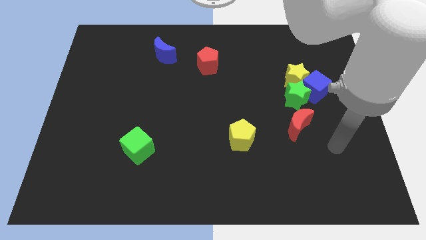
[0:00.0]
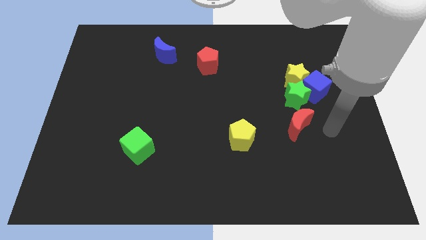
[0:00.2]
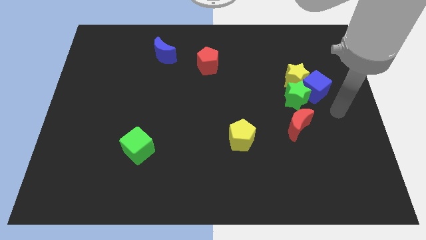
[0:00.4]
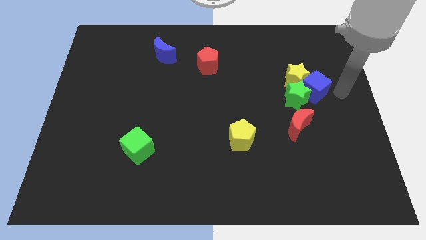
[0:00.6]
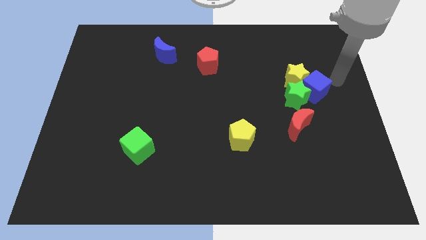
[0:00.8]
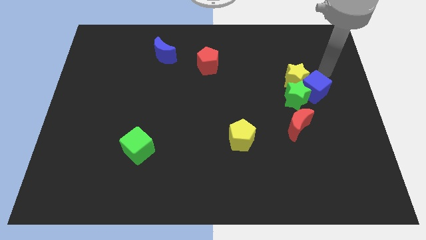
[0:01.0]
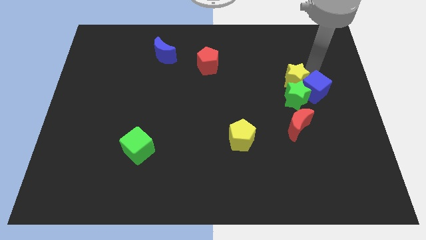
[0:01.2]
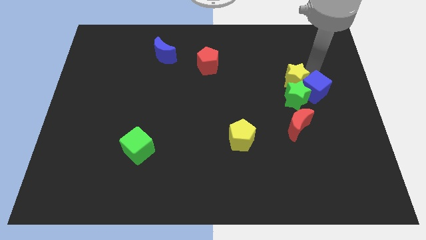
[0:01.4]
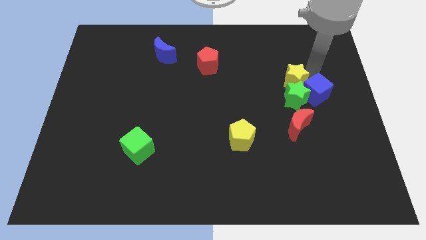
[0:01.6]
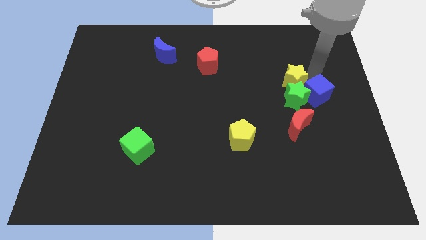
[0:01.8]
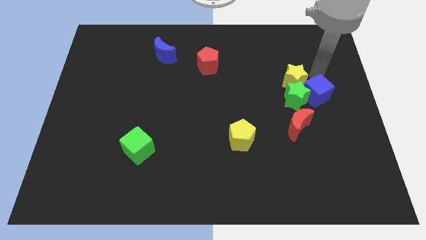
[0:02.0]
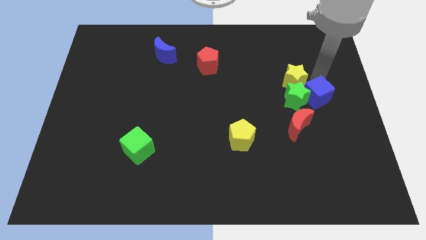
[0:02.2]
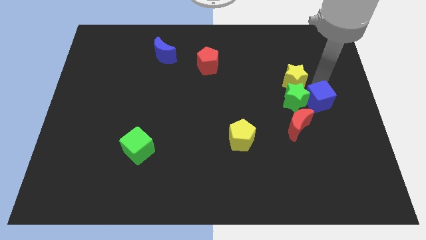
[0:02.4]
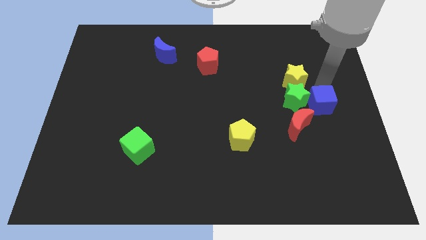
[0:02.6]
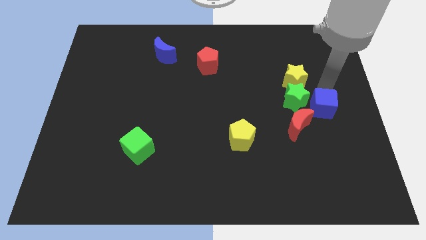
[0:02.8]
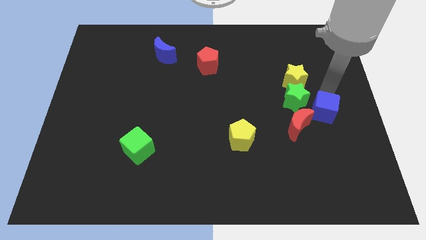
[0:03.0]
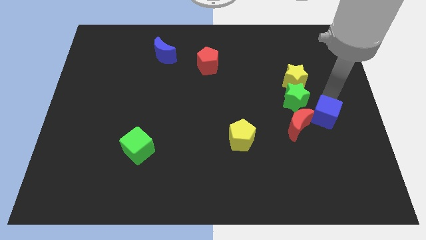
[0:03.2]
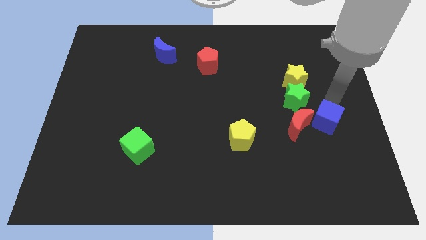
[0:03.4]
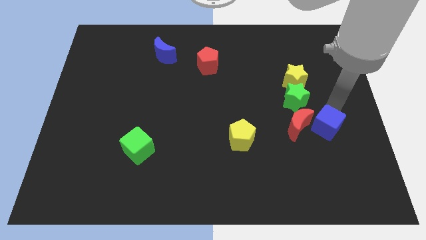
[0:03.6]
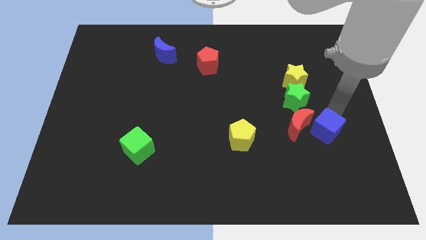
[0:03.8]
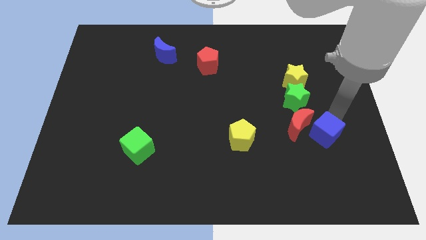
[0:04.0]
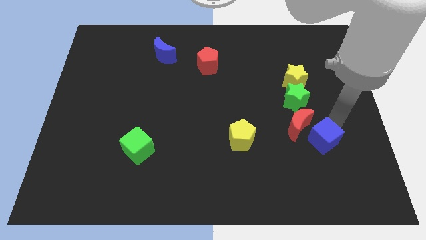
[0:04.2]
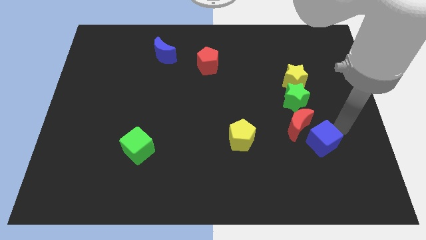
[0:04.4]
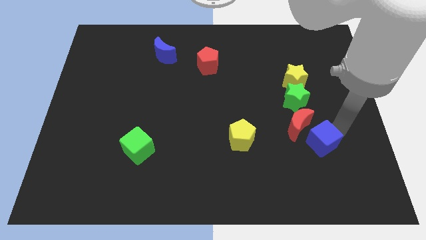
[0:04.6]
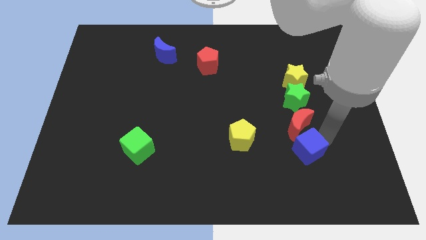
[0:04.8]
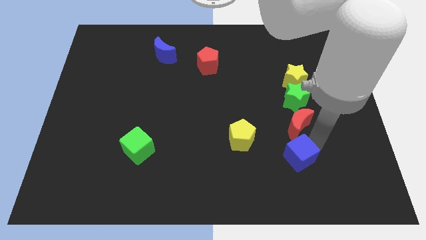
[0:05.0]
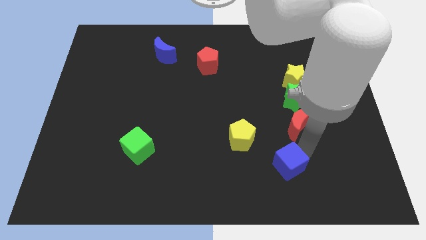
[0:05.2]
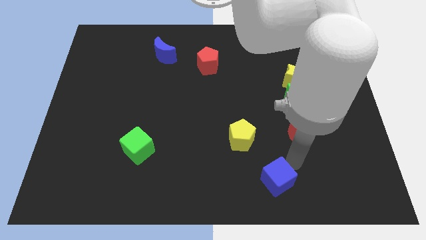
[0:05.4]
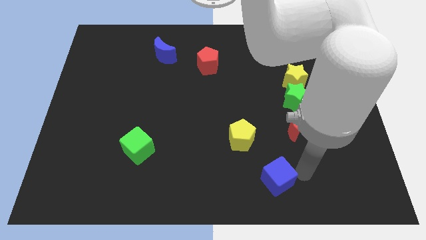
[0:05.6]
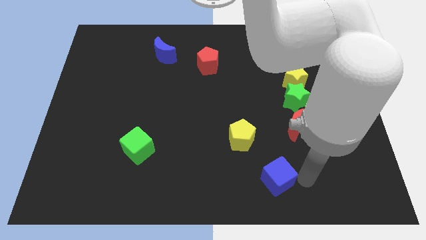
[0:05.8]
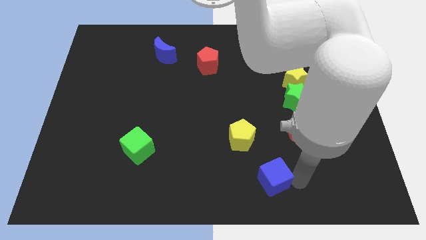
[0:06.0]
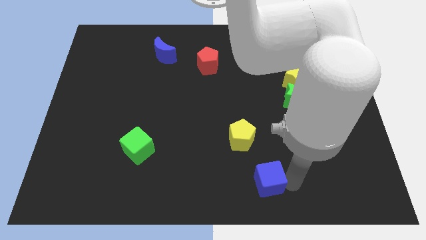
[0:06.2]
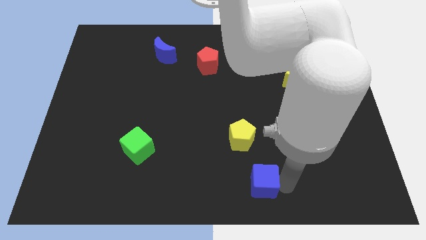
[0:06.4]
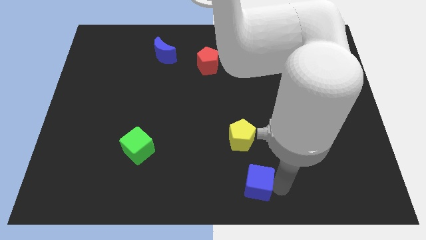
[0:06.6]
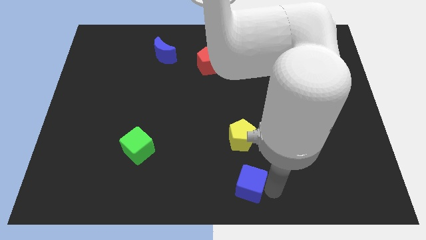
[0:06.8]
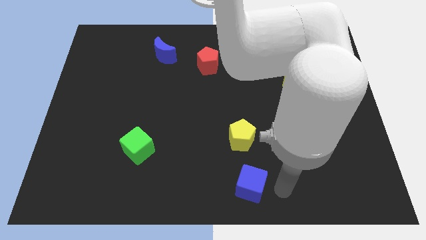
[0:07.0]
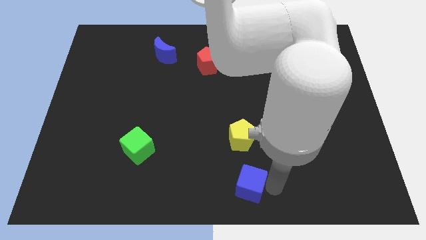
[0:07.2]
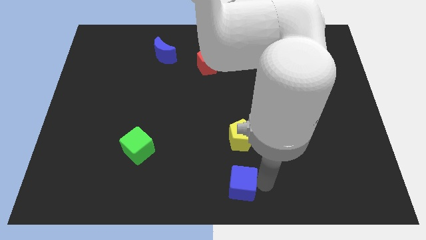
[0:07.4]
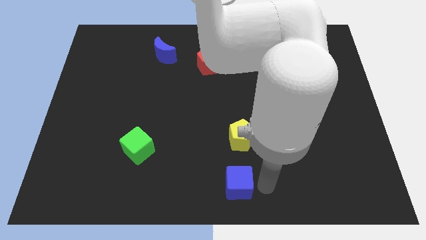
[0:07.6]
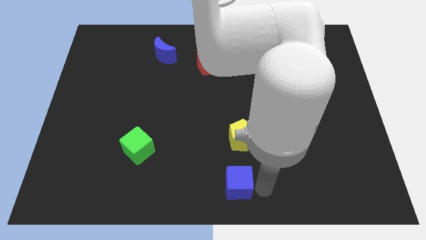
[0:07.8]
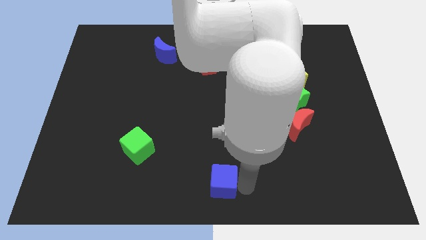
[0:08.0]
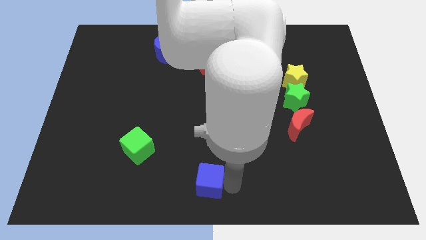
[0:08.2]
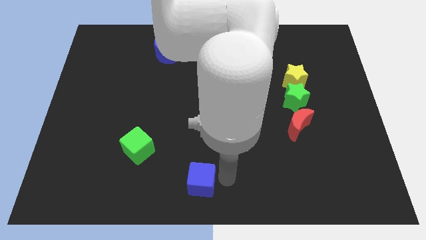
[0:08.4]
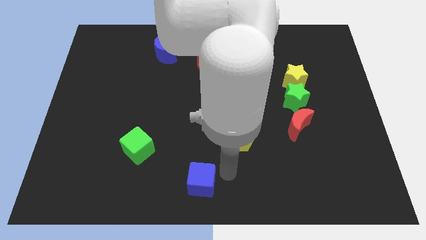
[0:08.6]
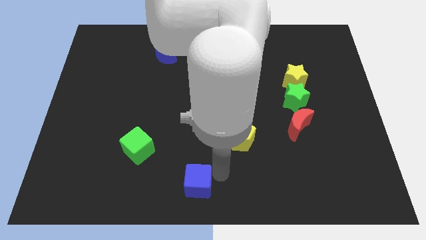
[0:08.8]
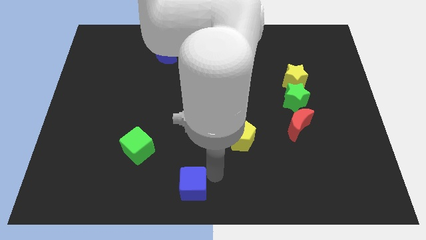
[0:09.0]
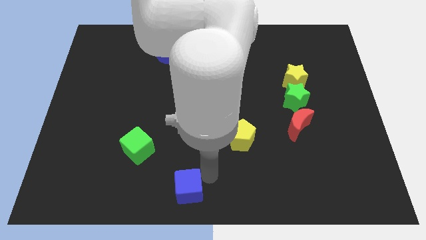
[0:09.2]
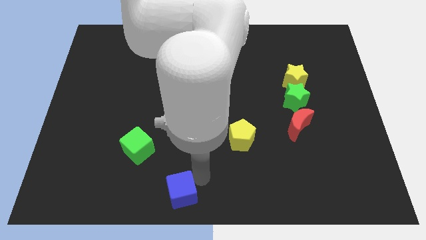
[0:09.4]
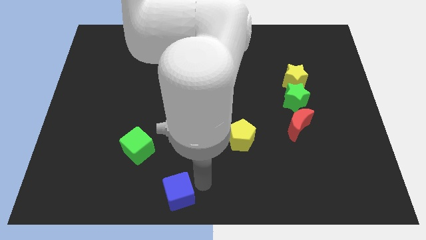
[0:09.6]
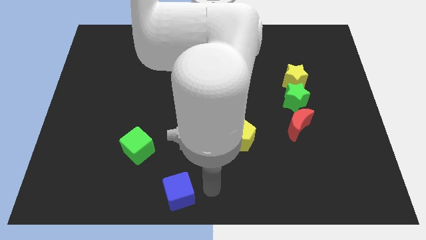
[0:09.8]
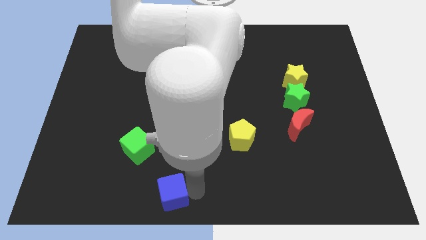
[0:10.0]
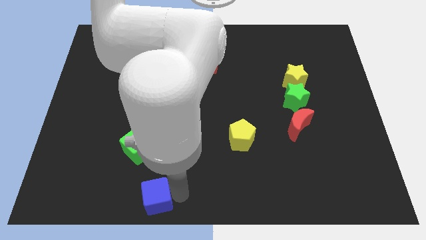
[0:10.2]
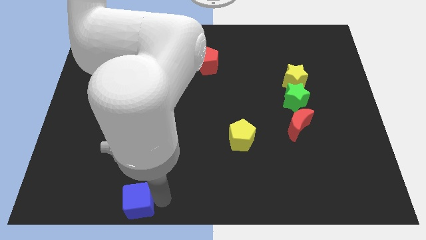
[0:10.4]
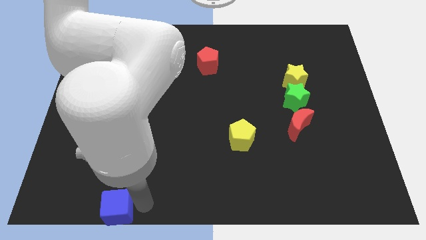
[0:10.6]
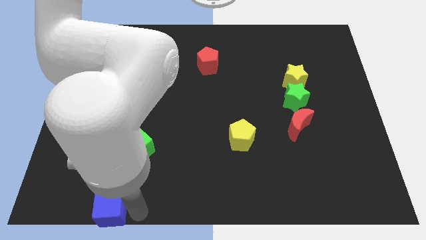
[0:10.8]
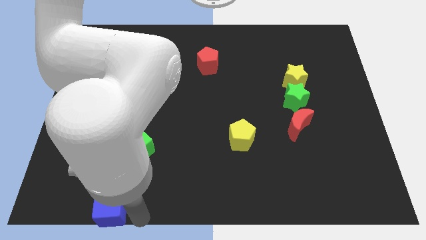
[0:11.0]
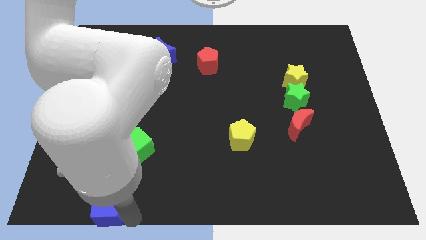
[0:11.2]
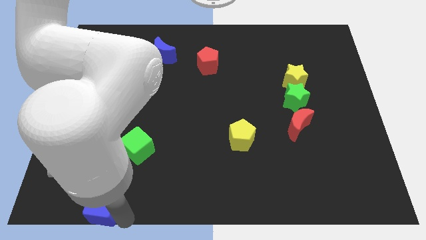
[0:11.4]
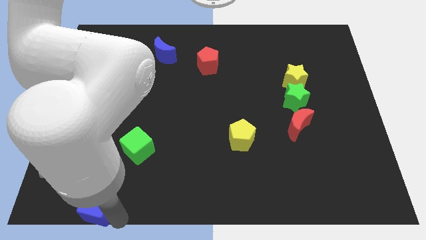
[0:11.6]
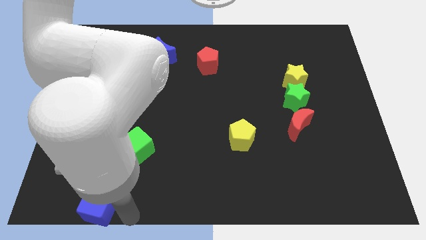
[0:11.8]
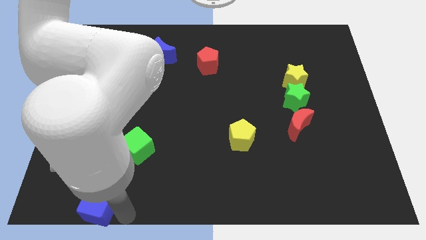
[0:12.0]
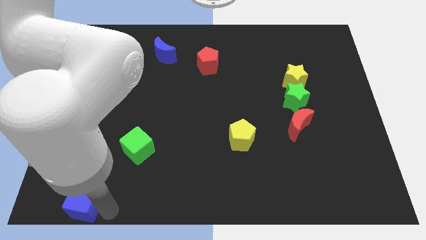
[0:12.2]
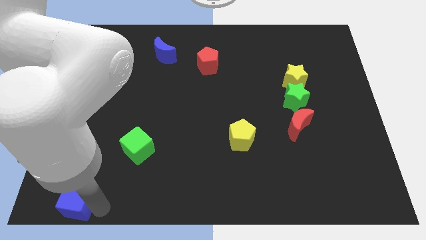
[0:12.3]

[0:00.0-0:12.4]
move the blue cube to the bottom left corner
